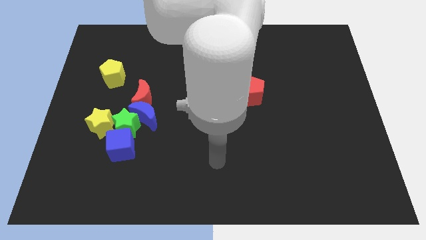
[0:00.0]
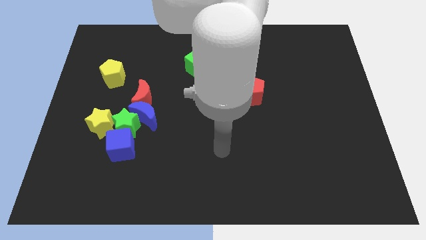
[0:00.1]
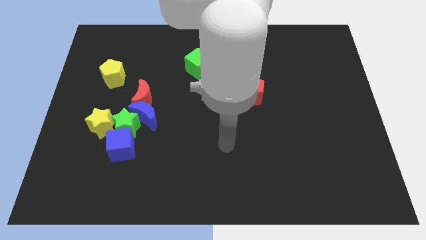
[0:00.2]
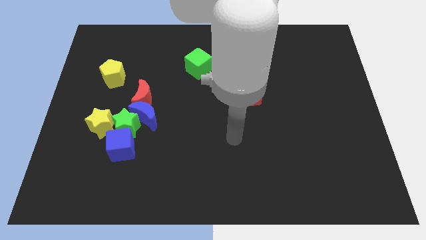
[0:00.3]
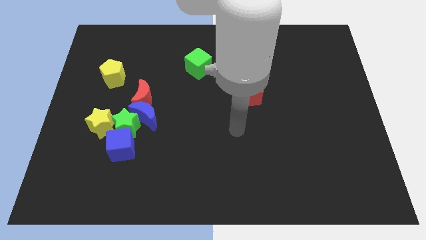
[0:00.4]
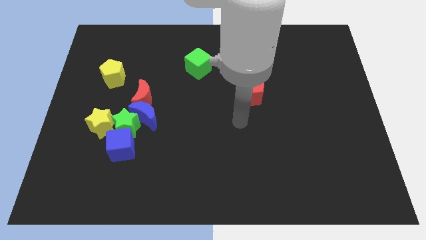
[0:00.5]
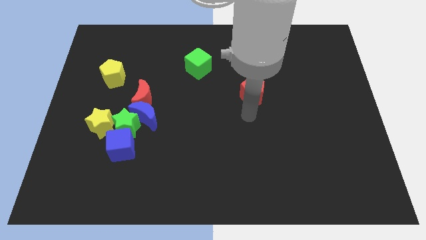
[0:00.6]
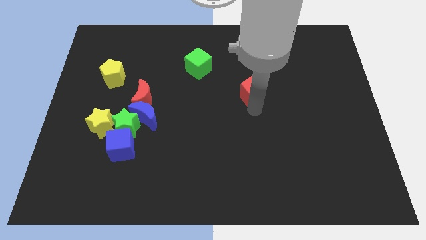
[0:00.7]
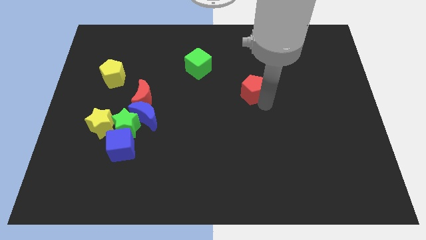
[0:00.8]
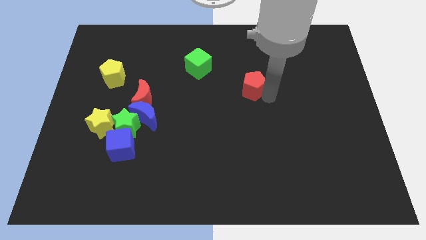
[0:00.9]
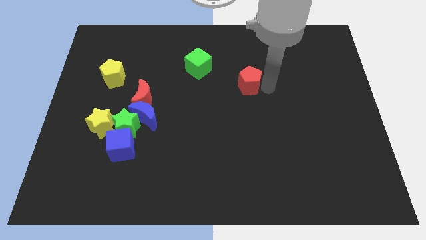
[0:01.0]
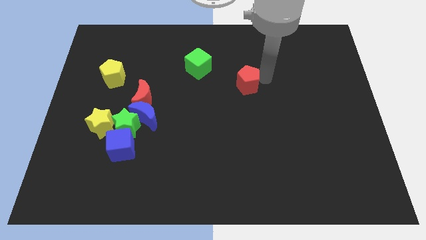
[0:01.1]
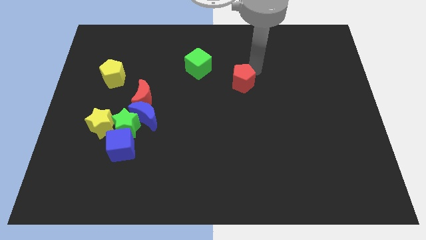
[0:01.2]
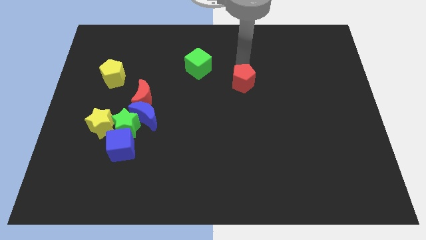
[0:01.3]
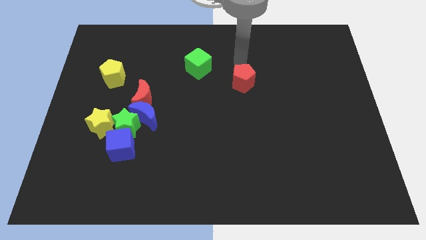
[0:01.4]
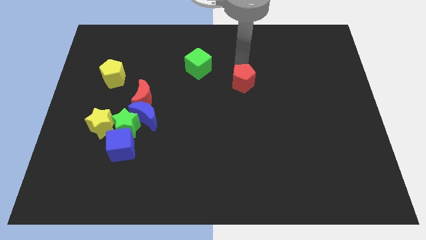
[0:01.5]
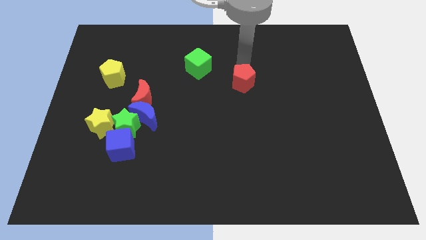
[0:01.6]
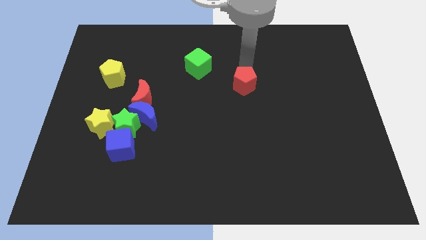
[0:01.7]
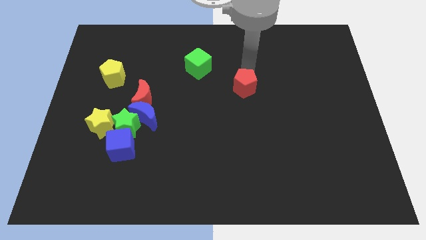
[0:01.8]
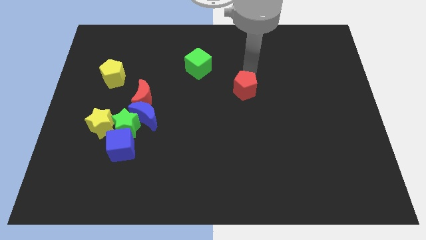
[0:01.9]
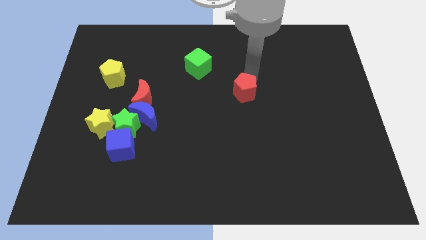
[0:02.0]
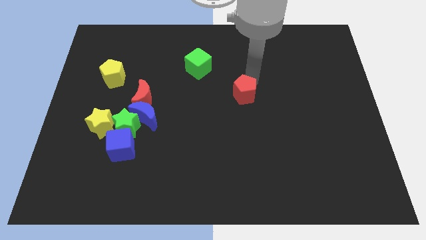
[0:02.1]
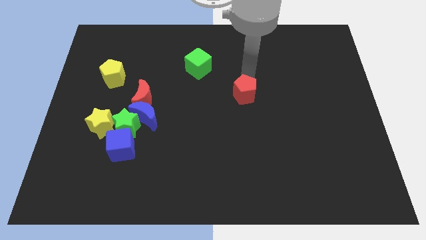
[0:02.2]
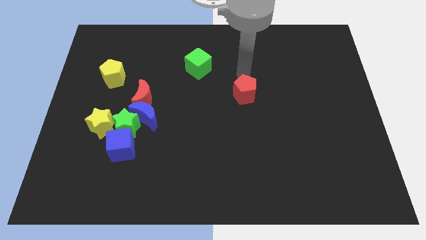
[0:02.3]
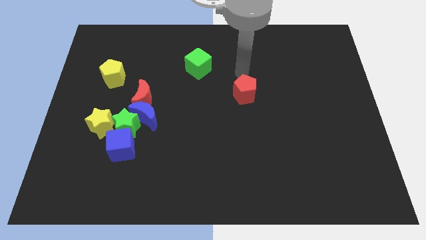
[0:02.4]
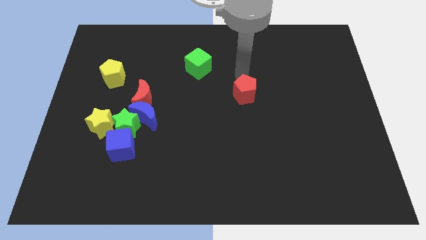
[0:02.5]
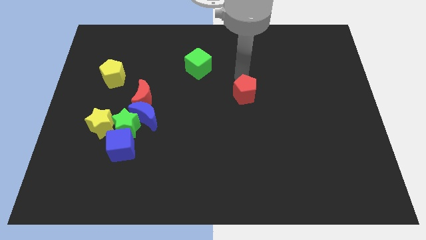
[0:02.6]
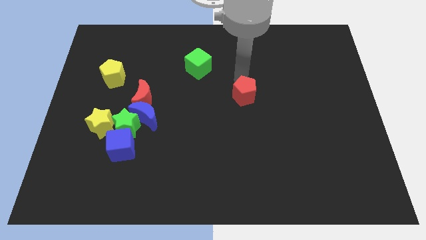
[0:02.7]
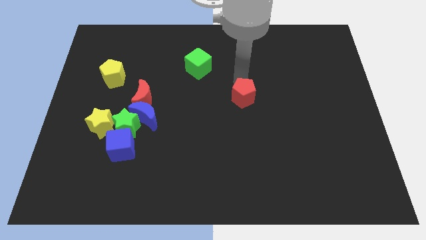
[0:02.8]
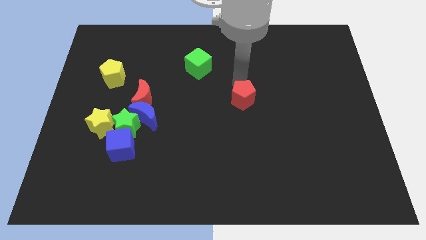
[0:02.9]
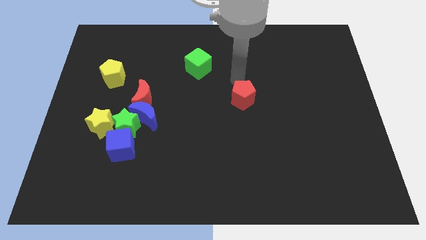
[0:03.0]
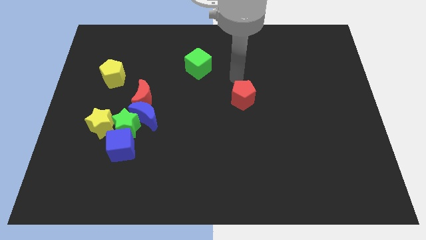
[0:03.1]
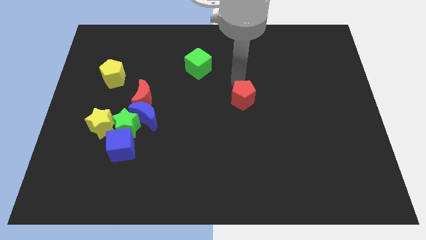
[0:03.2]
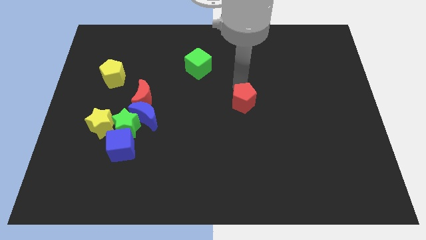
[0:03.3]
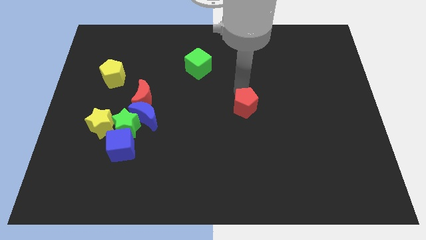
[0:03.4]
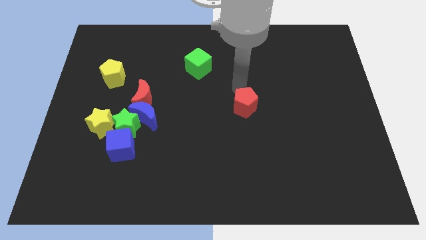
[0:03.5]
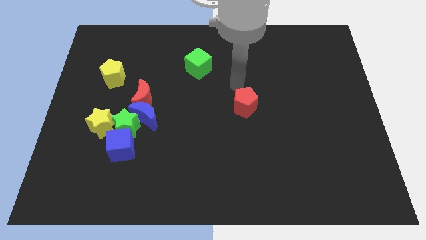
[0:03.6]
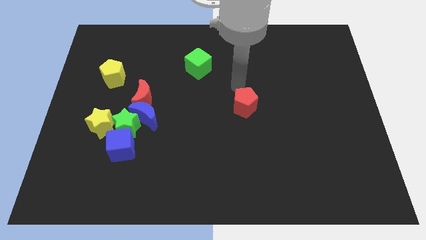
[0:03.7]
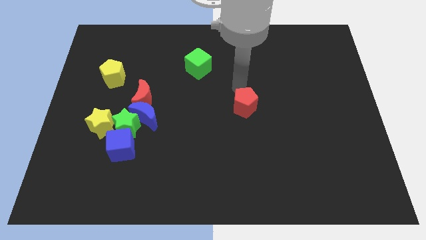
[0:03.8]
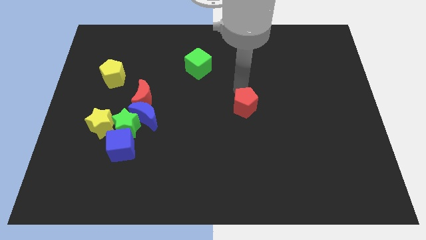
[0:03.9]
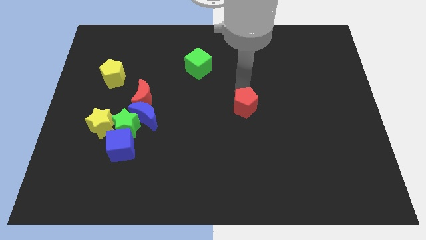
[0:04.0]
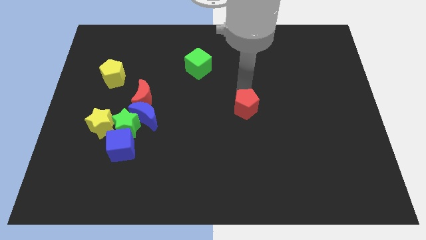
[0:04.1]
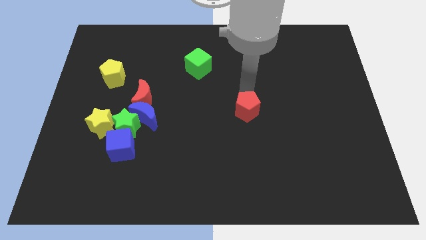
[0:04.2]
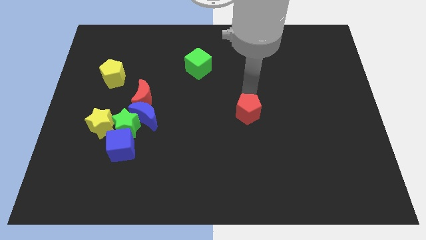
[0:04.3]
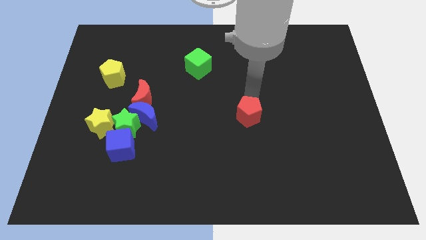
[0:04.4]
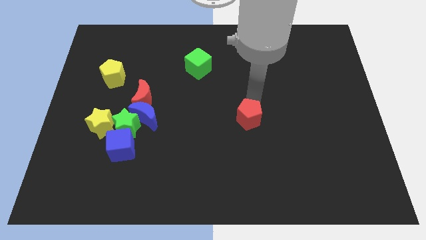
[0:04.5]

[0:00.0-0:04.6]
slightly move the red pentagon downwards

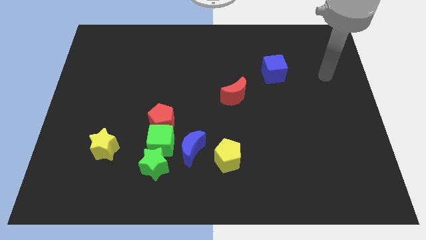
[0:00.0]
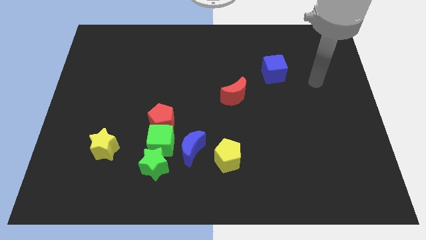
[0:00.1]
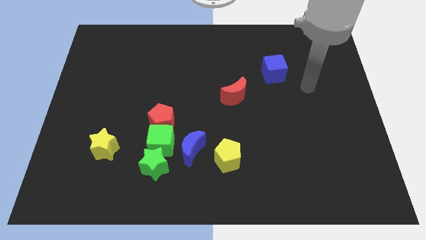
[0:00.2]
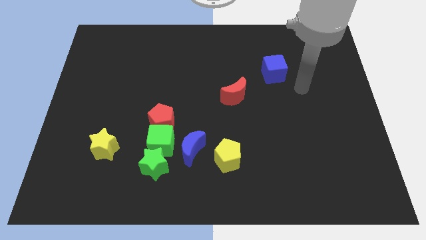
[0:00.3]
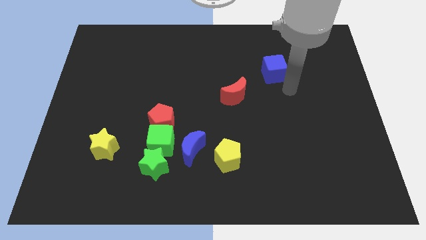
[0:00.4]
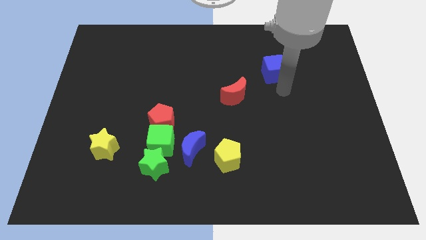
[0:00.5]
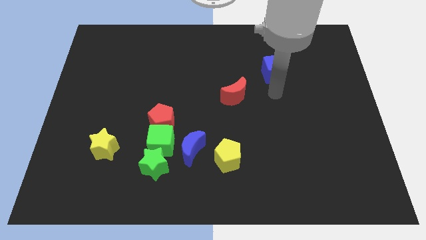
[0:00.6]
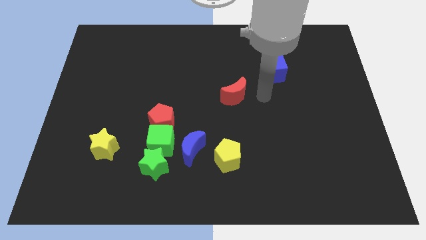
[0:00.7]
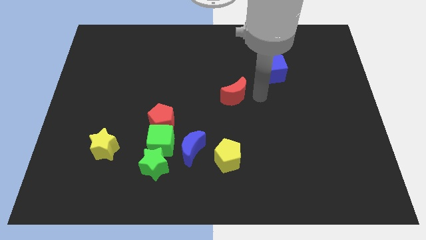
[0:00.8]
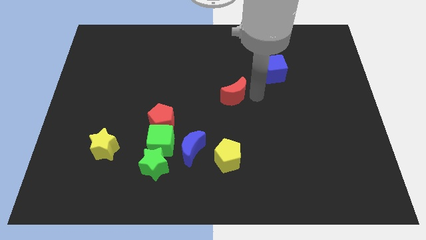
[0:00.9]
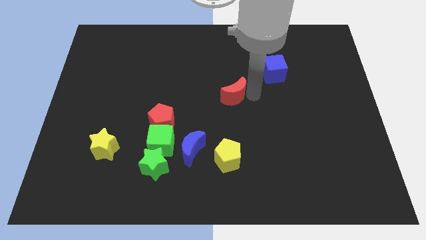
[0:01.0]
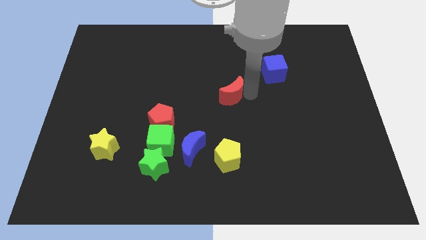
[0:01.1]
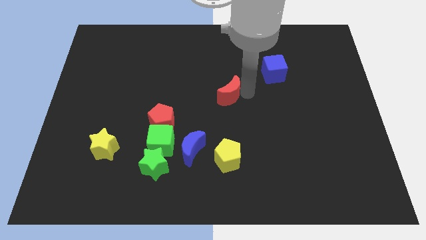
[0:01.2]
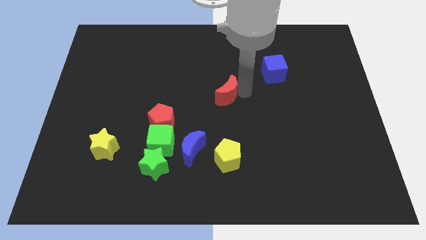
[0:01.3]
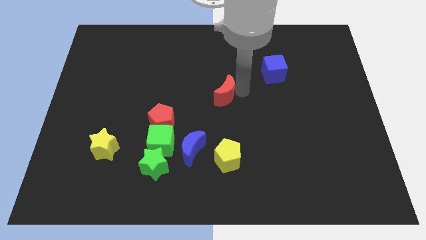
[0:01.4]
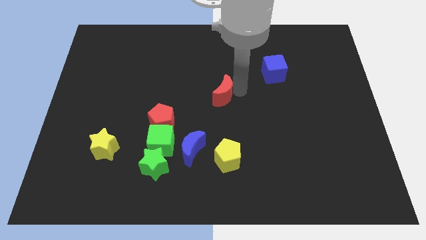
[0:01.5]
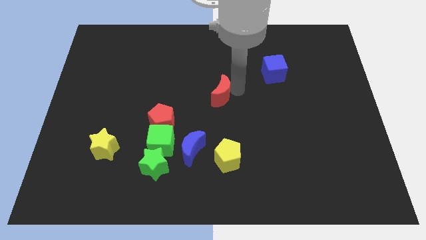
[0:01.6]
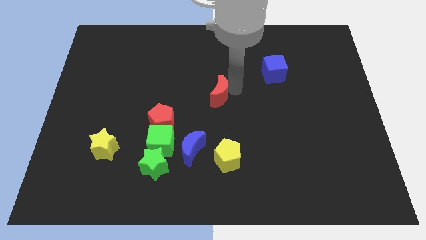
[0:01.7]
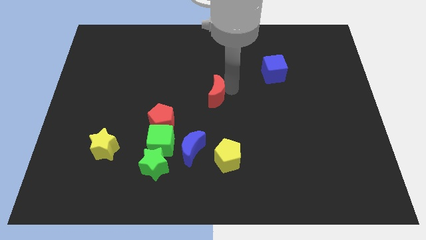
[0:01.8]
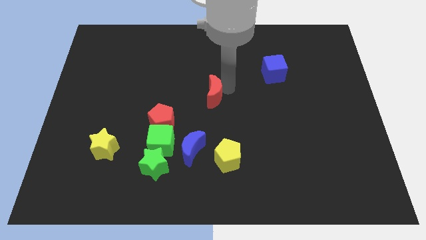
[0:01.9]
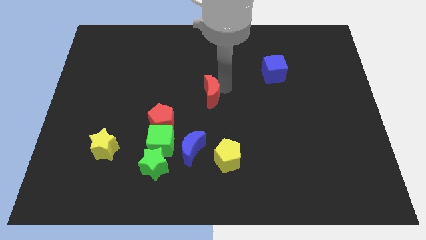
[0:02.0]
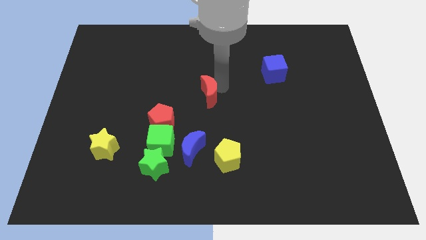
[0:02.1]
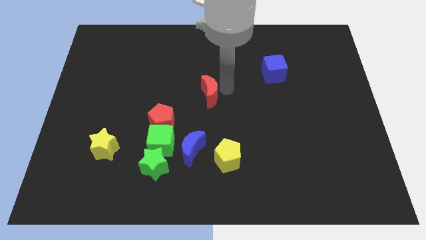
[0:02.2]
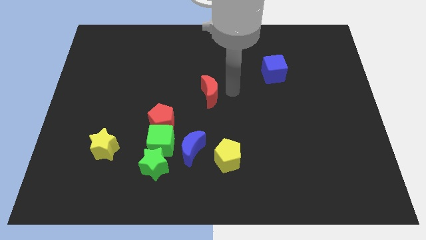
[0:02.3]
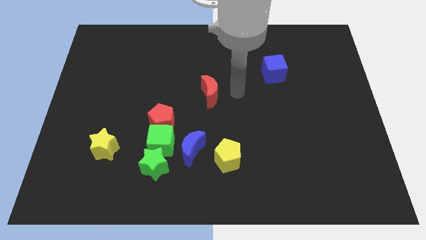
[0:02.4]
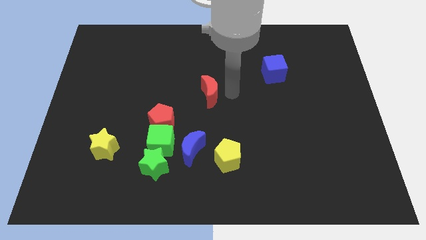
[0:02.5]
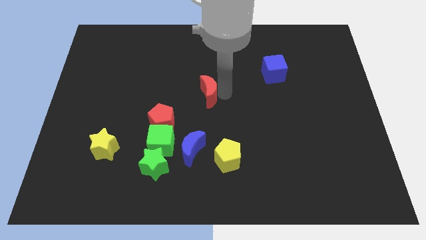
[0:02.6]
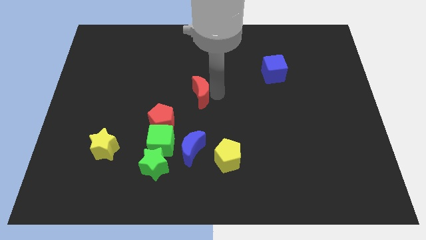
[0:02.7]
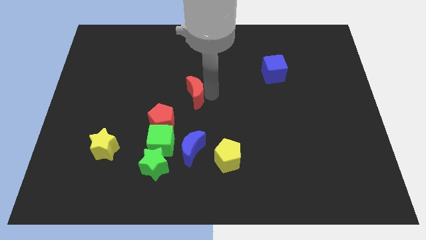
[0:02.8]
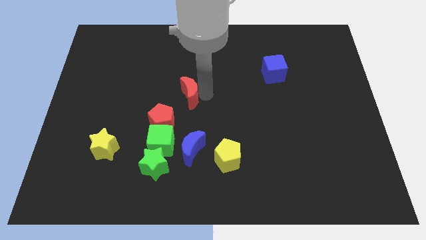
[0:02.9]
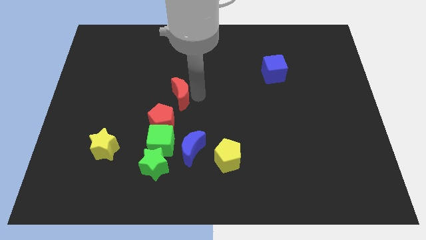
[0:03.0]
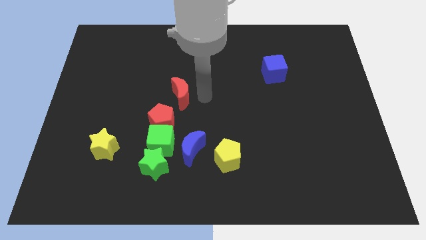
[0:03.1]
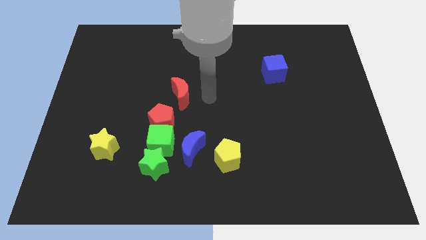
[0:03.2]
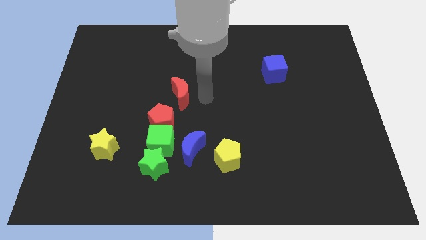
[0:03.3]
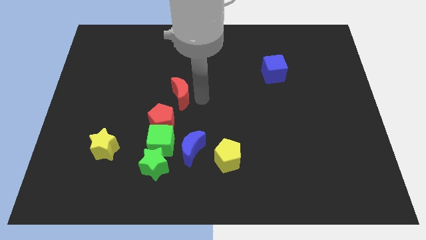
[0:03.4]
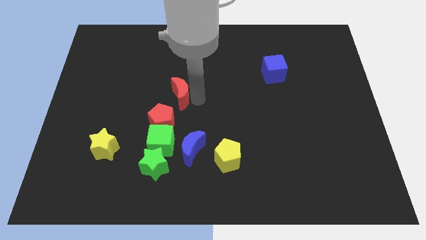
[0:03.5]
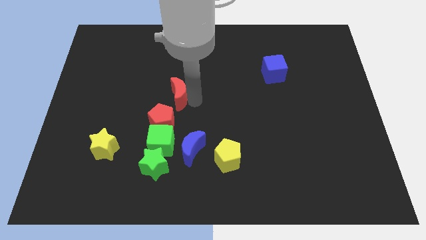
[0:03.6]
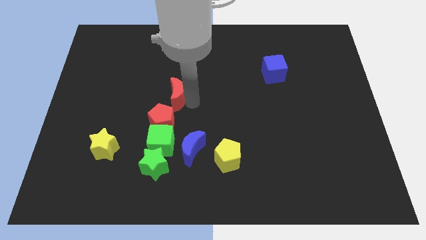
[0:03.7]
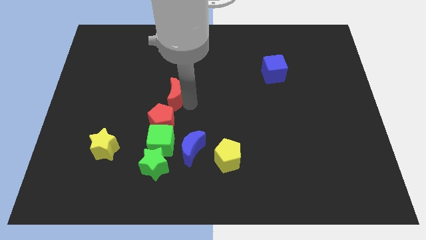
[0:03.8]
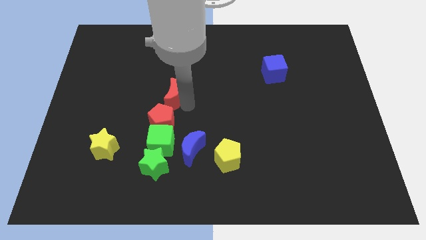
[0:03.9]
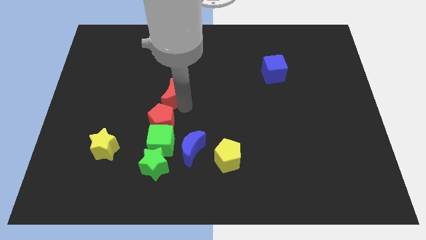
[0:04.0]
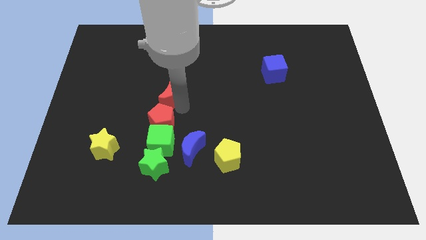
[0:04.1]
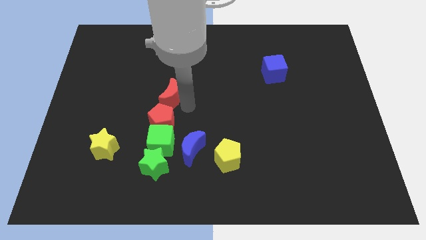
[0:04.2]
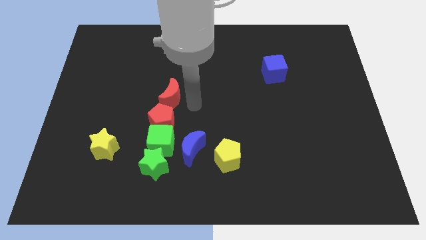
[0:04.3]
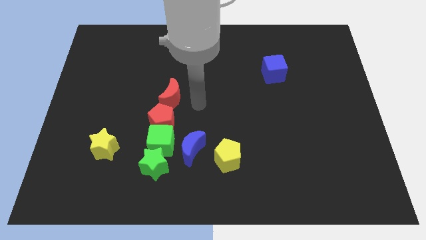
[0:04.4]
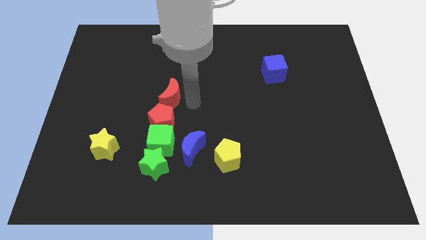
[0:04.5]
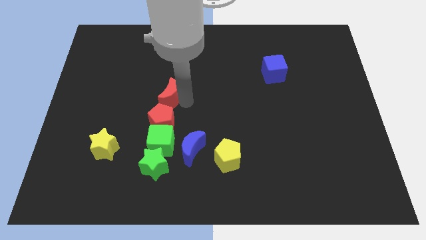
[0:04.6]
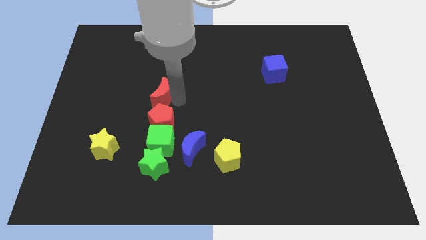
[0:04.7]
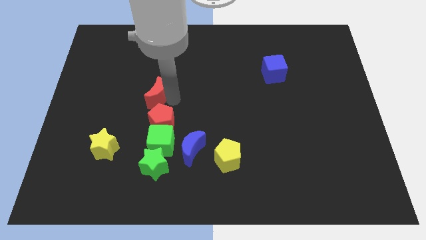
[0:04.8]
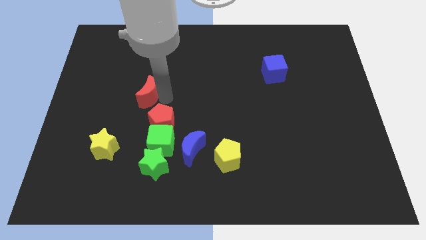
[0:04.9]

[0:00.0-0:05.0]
slide the red moon left
